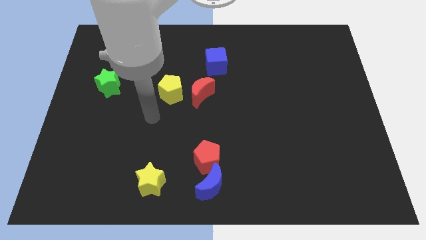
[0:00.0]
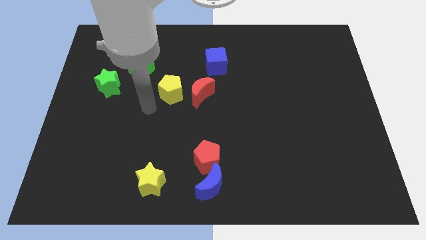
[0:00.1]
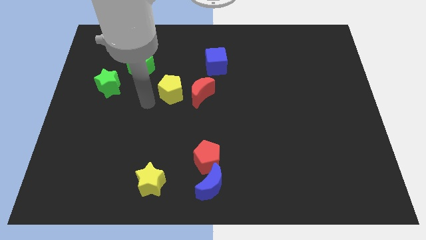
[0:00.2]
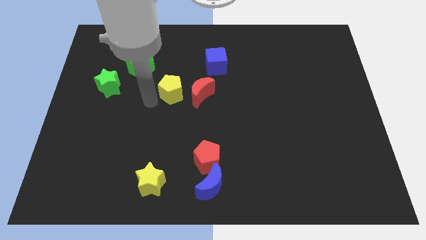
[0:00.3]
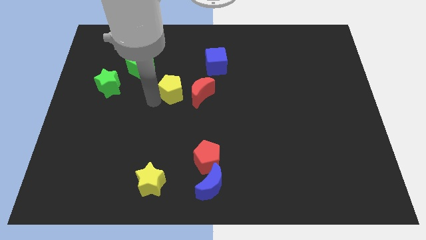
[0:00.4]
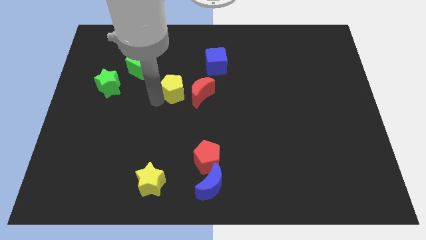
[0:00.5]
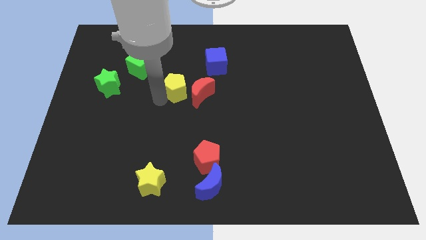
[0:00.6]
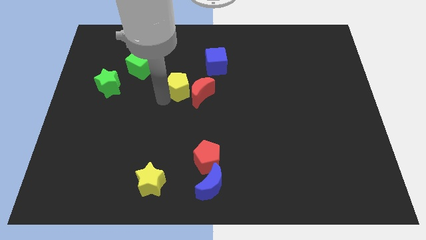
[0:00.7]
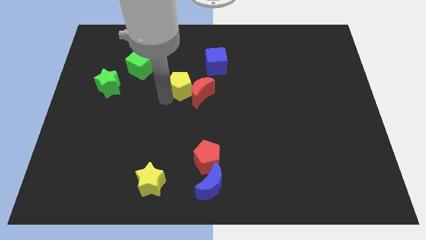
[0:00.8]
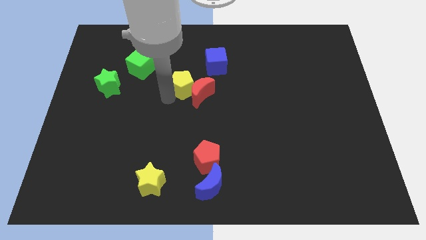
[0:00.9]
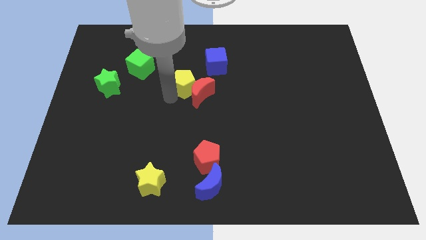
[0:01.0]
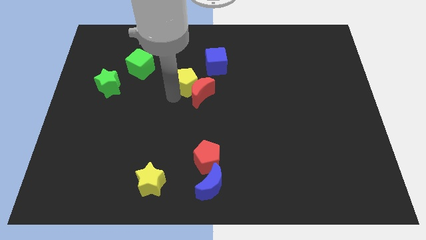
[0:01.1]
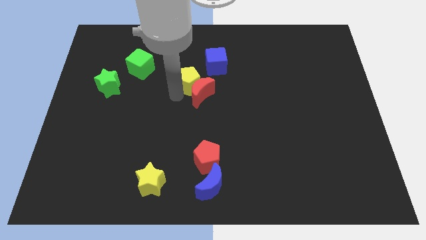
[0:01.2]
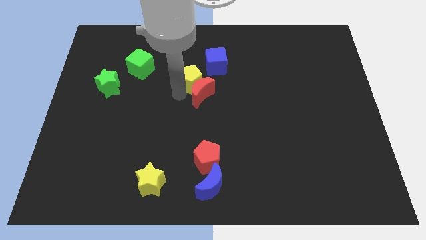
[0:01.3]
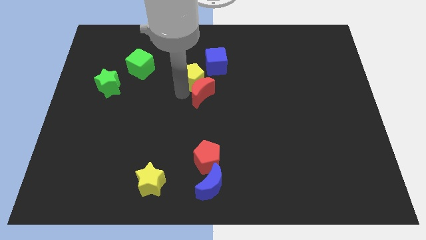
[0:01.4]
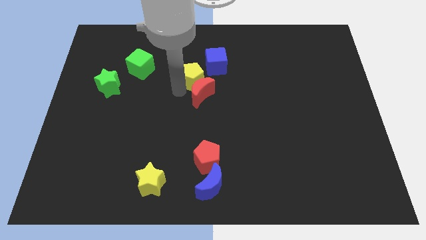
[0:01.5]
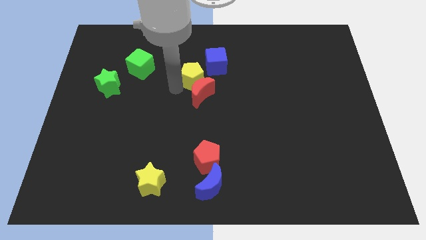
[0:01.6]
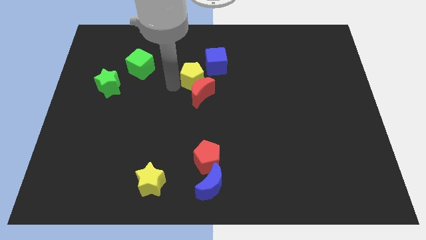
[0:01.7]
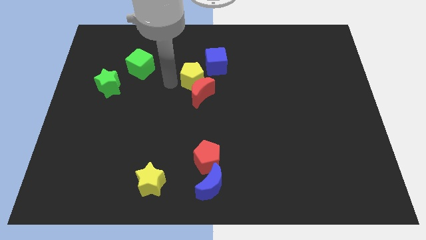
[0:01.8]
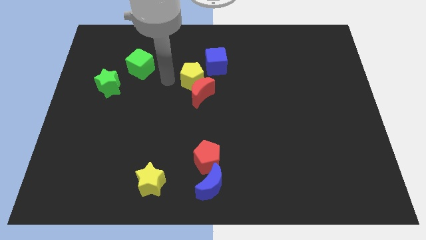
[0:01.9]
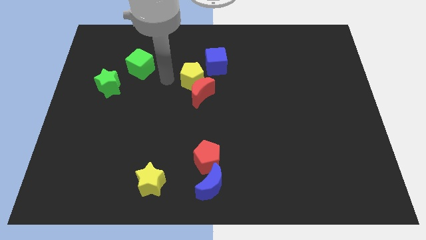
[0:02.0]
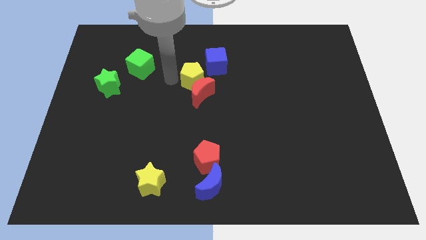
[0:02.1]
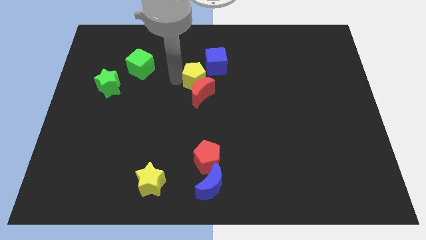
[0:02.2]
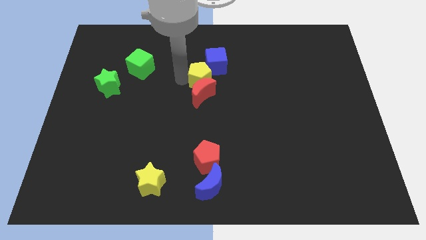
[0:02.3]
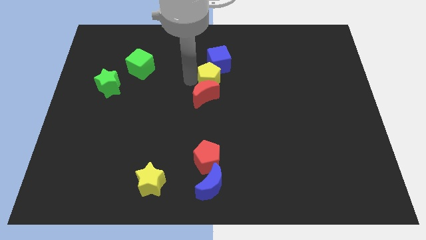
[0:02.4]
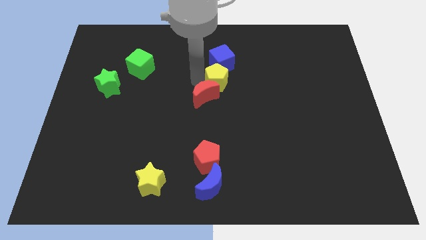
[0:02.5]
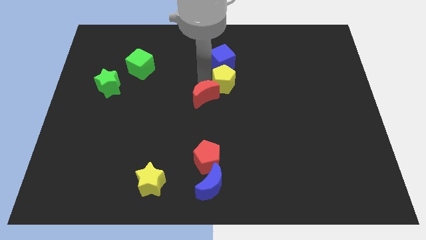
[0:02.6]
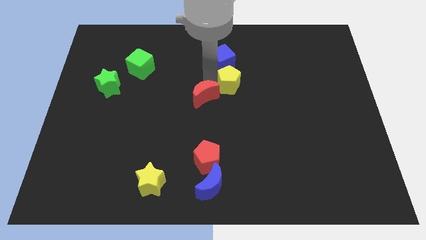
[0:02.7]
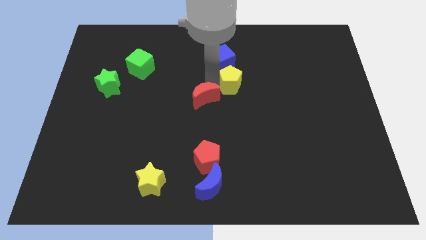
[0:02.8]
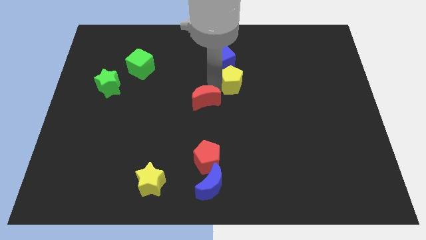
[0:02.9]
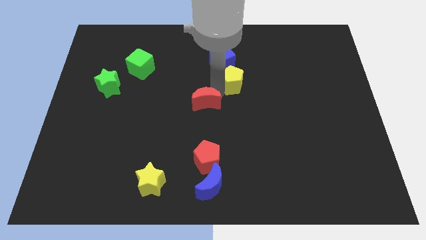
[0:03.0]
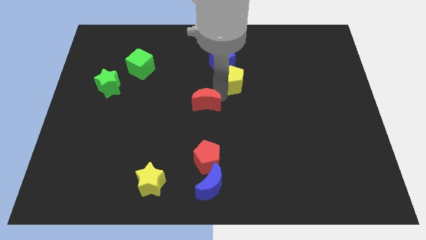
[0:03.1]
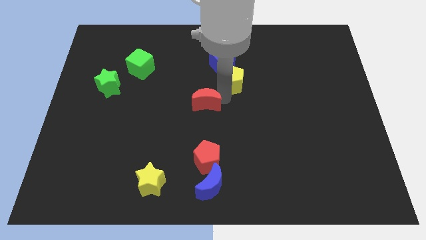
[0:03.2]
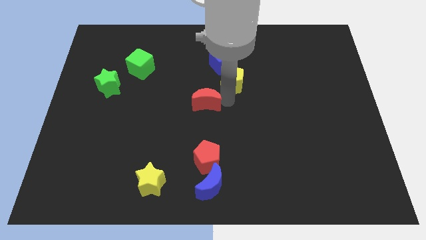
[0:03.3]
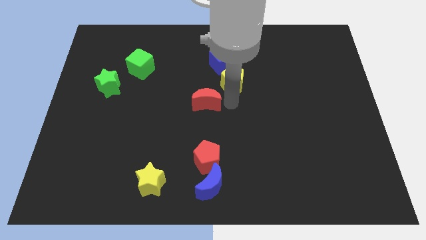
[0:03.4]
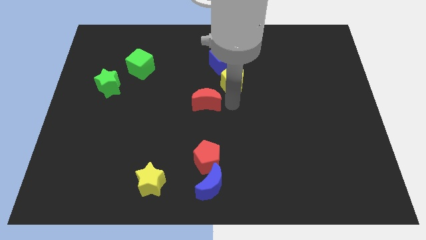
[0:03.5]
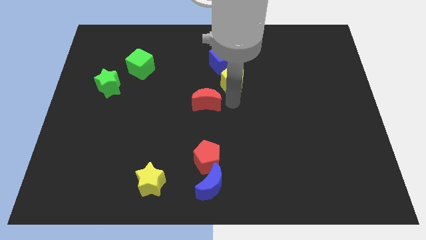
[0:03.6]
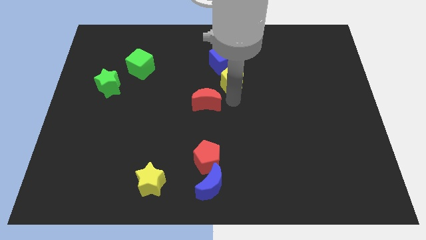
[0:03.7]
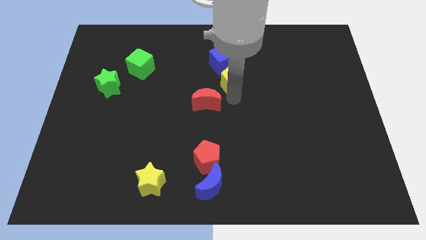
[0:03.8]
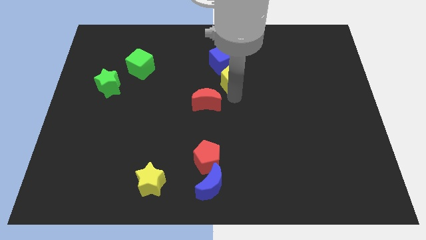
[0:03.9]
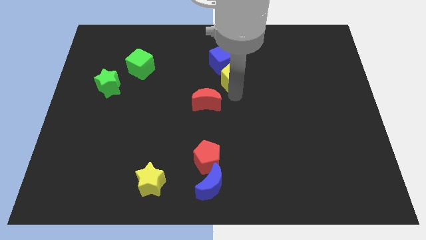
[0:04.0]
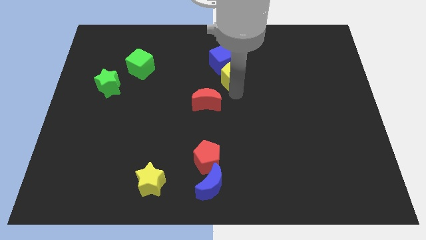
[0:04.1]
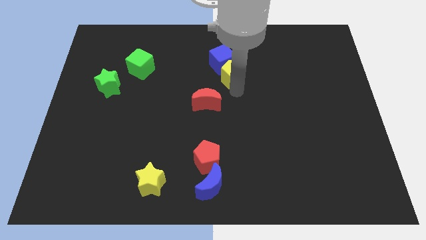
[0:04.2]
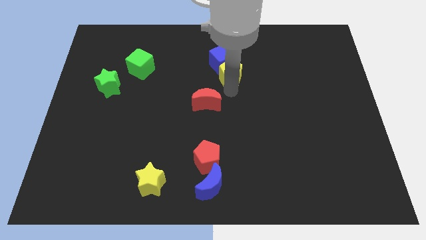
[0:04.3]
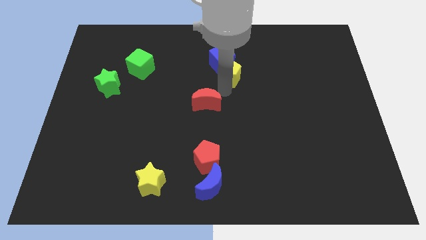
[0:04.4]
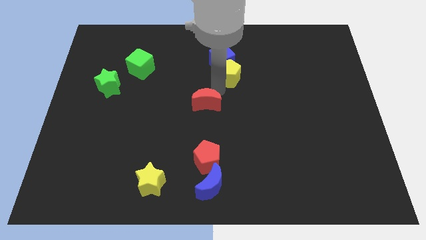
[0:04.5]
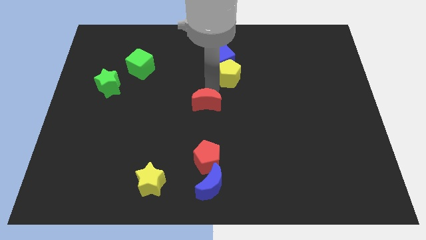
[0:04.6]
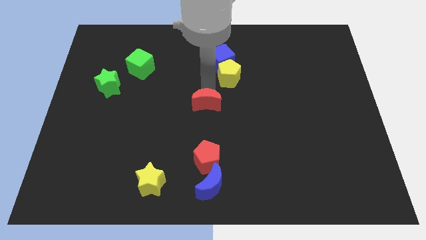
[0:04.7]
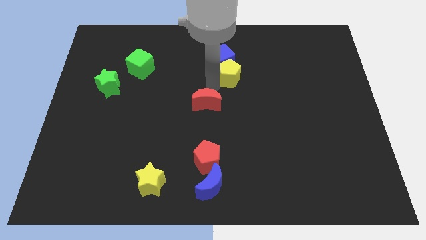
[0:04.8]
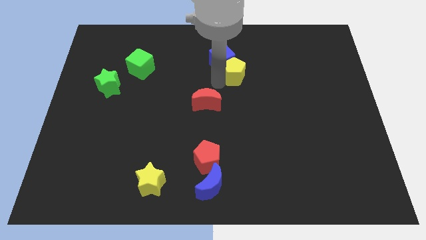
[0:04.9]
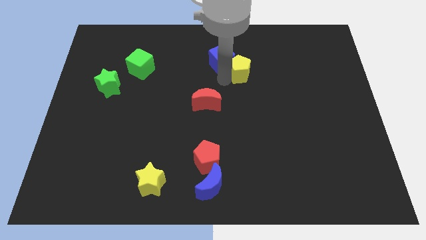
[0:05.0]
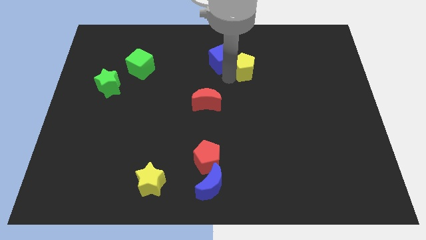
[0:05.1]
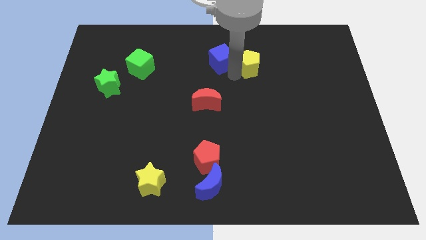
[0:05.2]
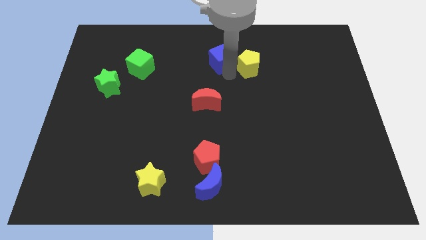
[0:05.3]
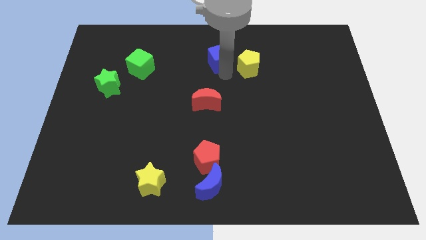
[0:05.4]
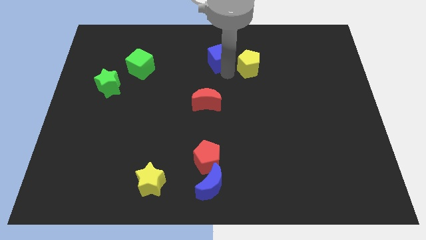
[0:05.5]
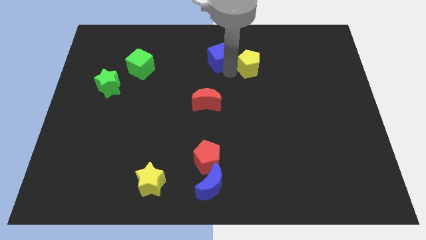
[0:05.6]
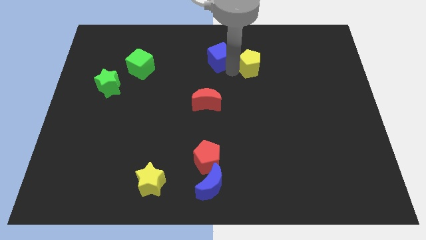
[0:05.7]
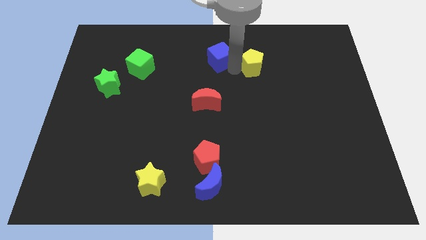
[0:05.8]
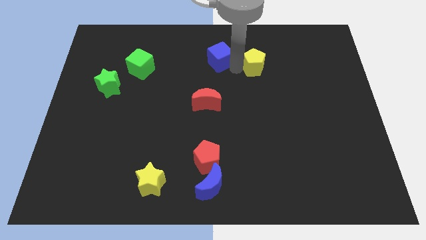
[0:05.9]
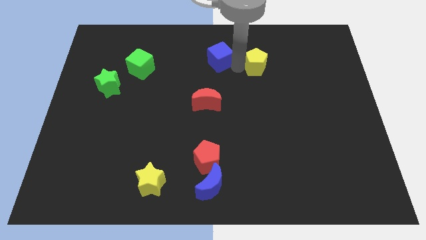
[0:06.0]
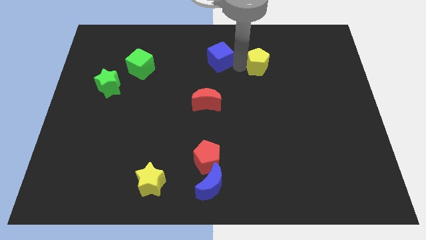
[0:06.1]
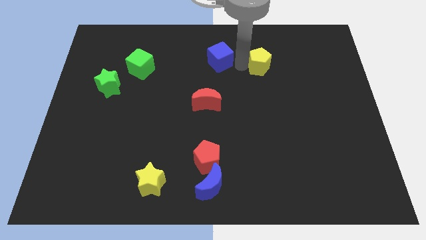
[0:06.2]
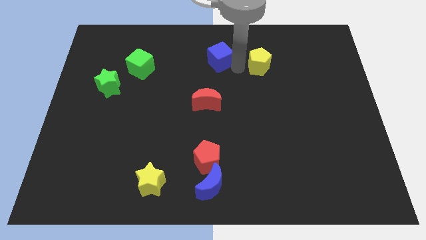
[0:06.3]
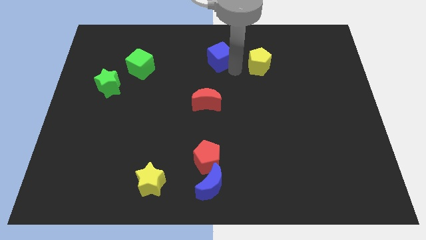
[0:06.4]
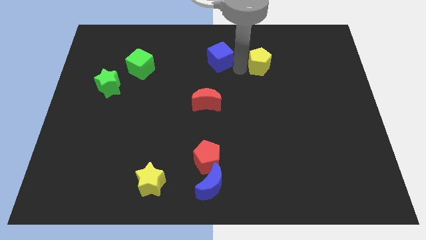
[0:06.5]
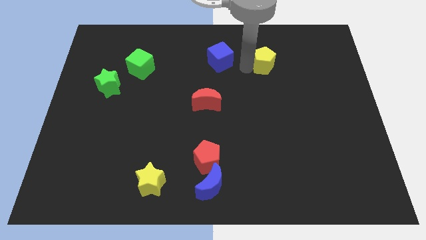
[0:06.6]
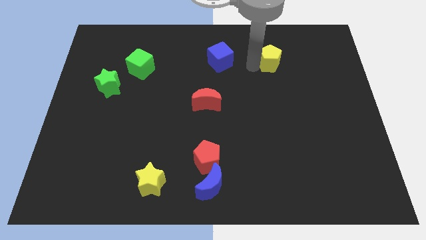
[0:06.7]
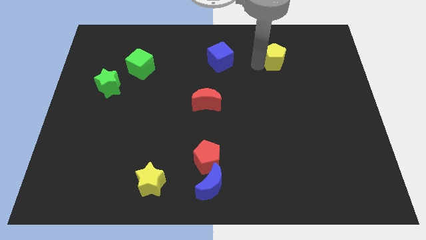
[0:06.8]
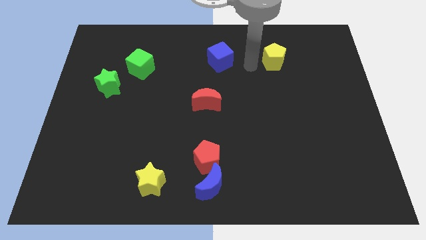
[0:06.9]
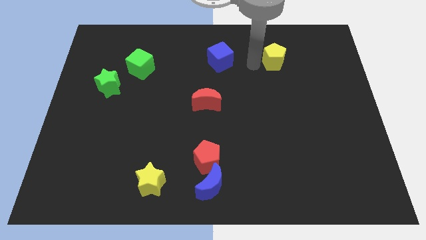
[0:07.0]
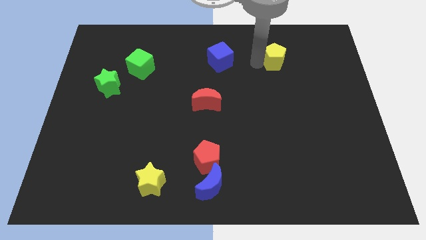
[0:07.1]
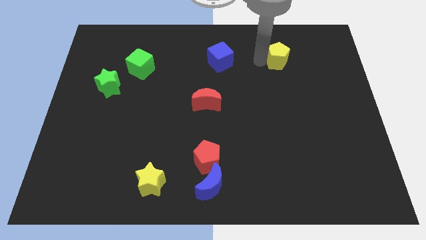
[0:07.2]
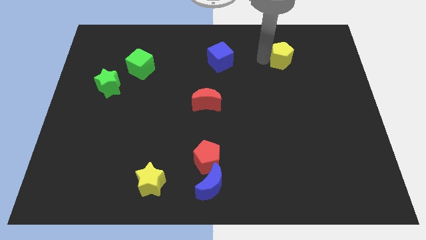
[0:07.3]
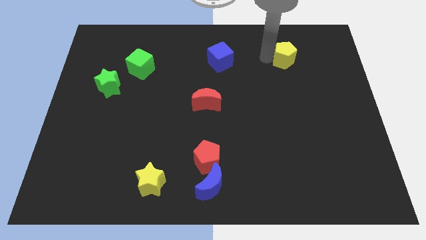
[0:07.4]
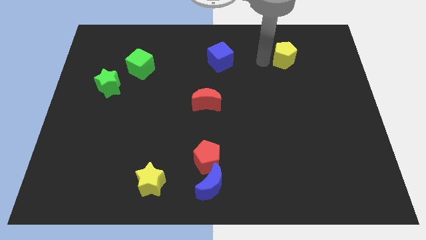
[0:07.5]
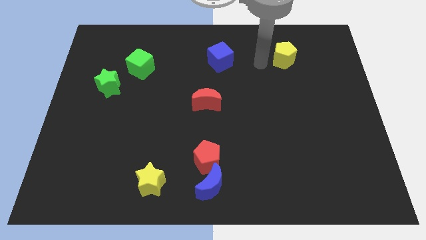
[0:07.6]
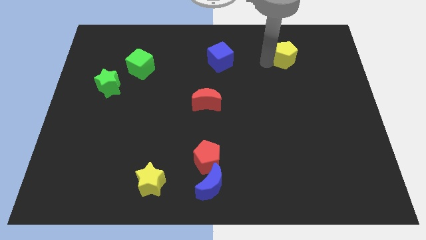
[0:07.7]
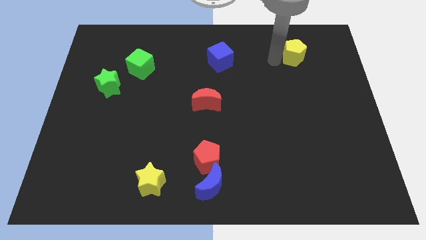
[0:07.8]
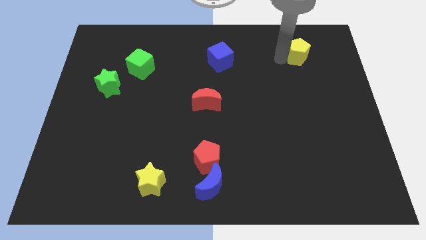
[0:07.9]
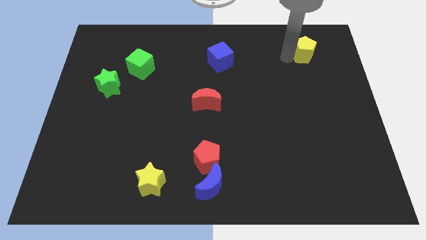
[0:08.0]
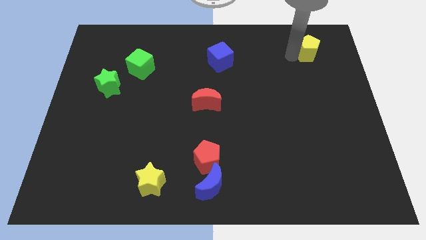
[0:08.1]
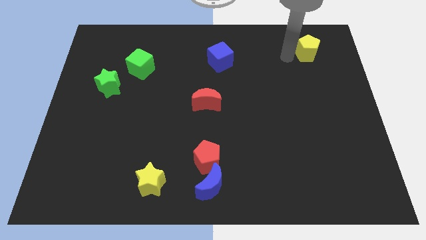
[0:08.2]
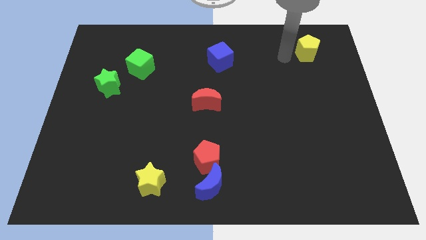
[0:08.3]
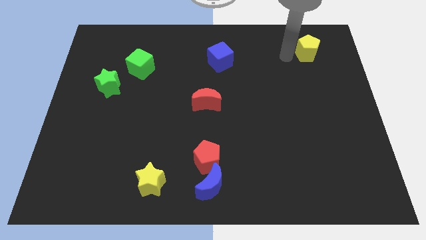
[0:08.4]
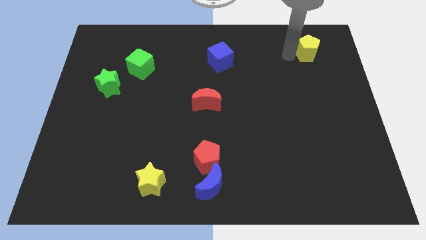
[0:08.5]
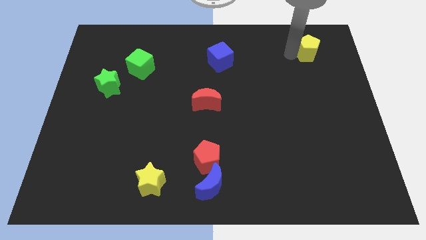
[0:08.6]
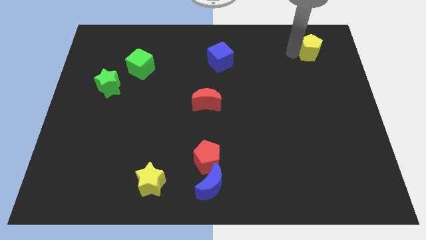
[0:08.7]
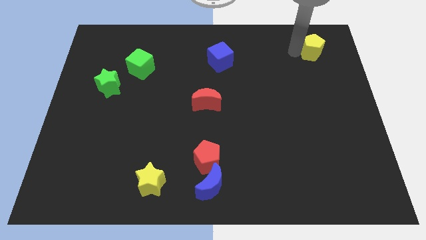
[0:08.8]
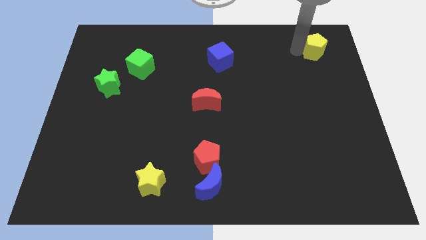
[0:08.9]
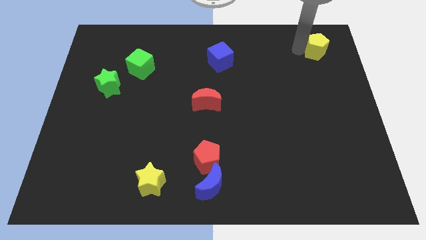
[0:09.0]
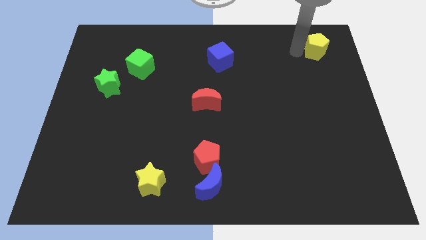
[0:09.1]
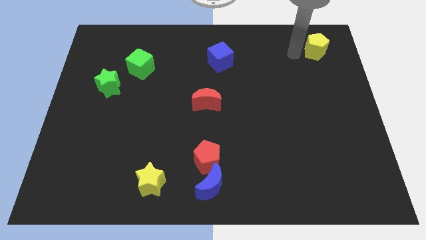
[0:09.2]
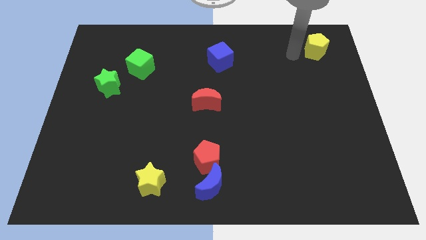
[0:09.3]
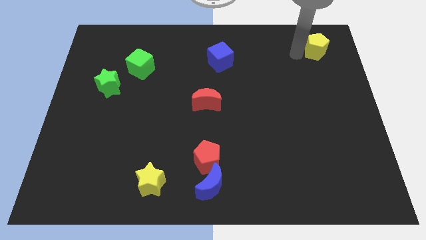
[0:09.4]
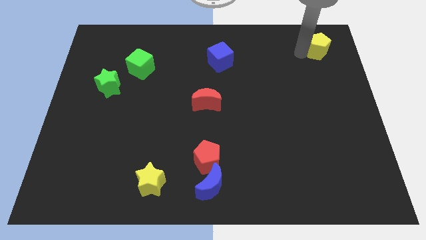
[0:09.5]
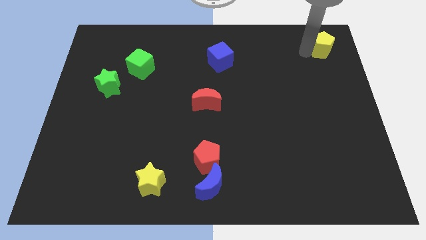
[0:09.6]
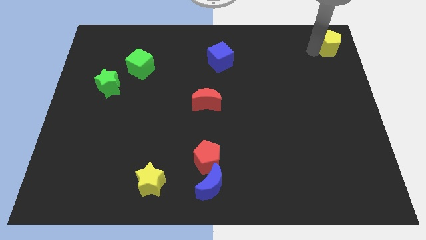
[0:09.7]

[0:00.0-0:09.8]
push the yellow pentagon to the top right of the board
